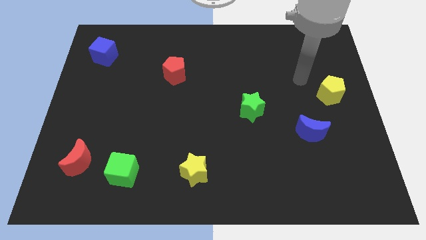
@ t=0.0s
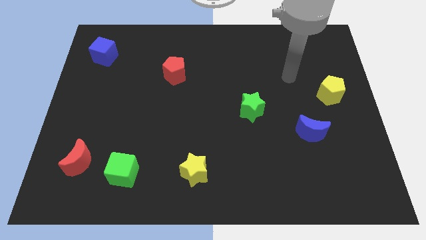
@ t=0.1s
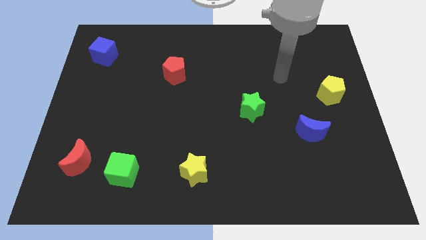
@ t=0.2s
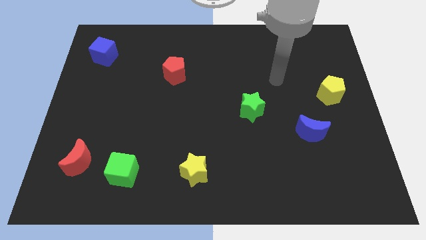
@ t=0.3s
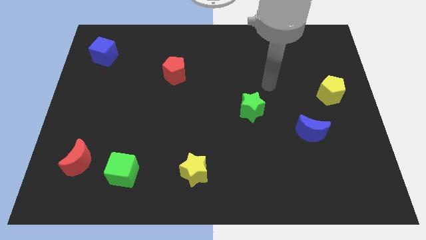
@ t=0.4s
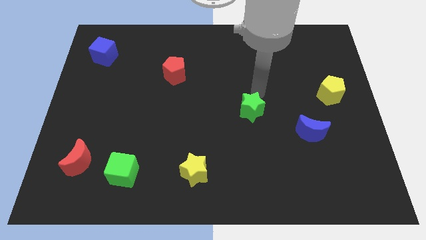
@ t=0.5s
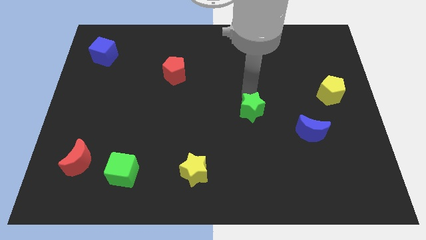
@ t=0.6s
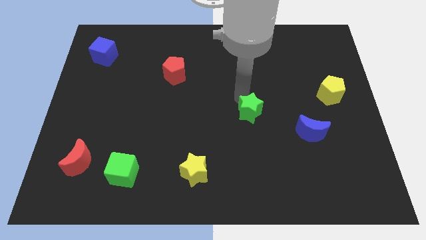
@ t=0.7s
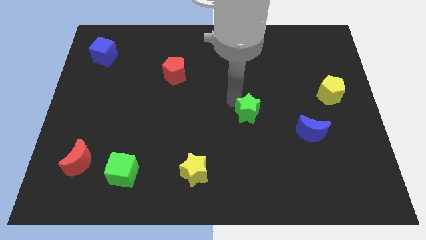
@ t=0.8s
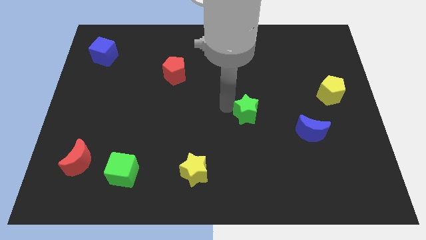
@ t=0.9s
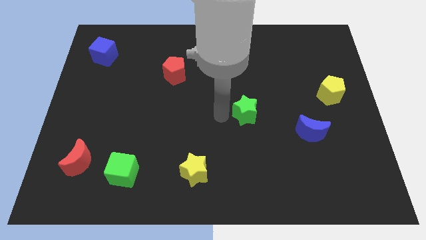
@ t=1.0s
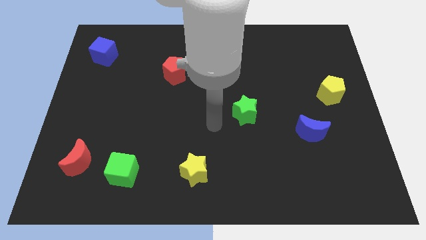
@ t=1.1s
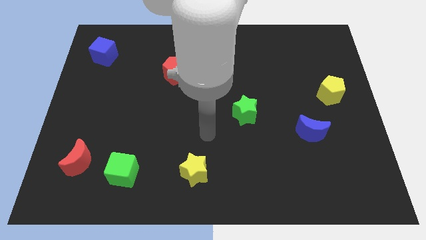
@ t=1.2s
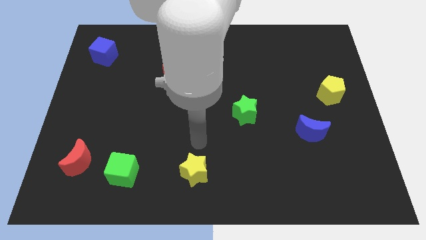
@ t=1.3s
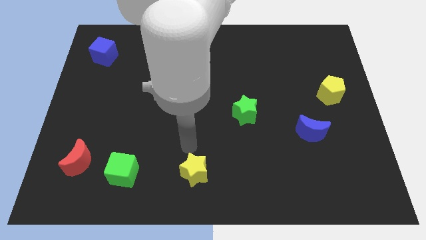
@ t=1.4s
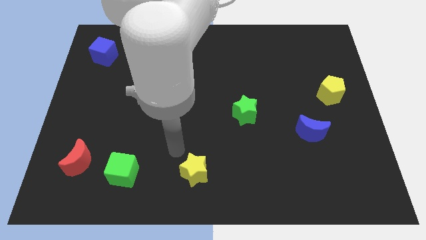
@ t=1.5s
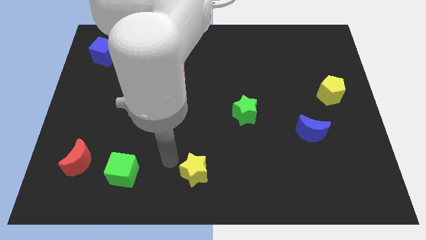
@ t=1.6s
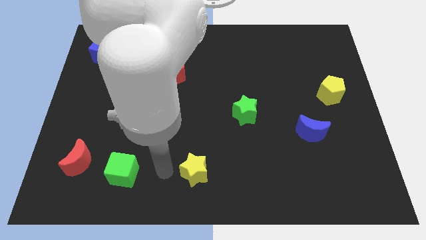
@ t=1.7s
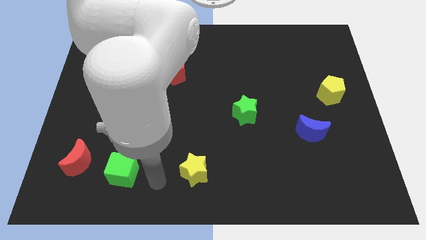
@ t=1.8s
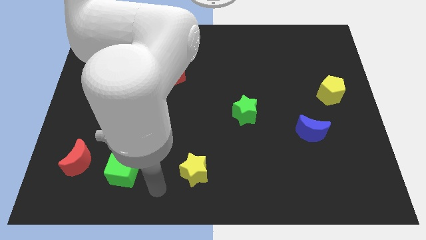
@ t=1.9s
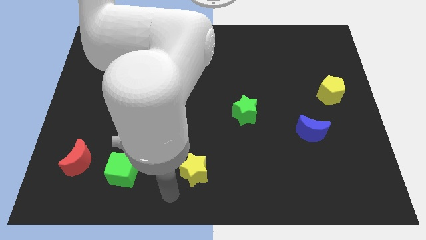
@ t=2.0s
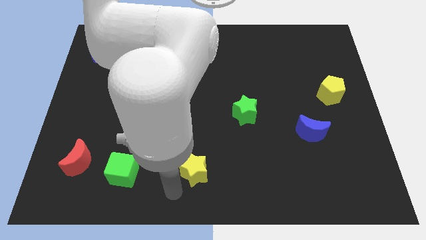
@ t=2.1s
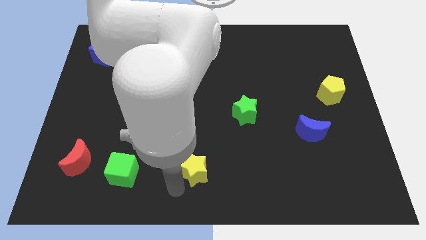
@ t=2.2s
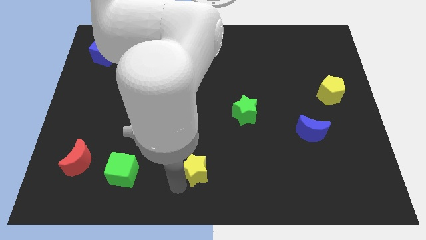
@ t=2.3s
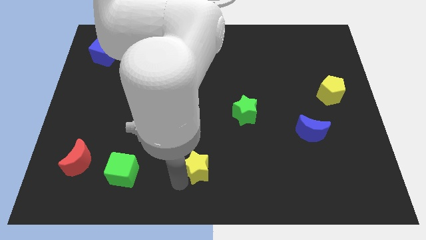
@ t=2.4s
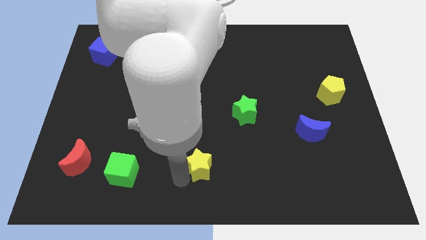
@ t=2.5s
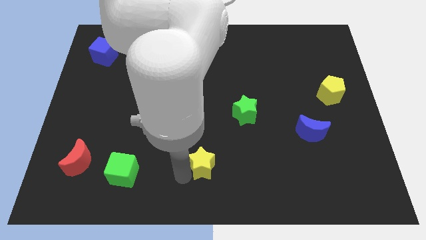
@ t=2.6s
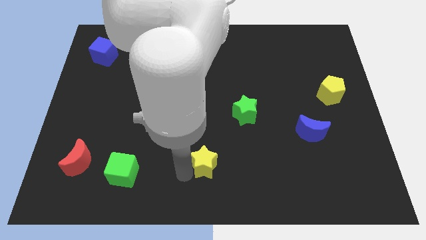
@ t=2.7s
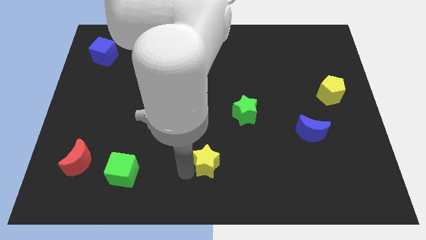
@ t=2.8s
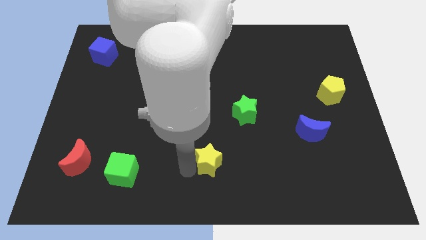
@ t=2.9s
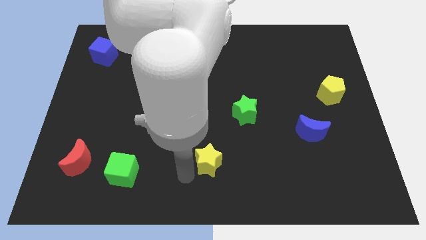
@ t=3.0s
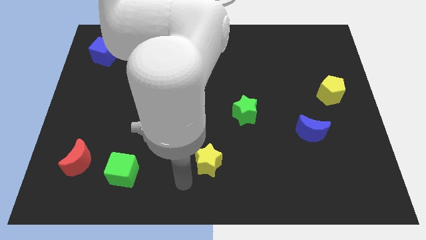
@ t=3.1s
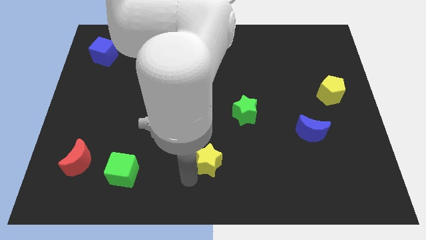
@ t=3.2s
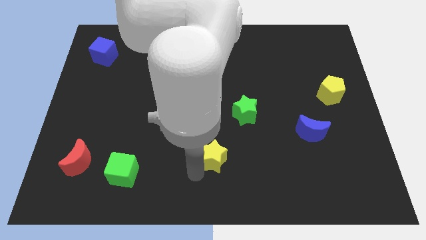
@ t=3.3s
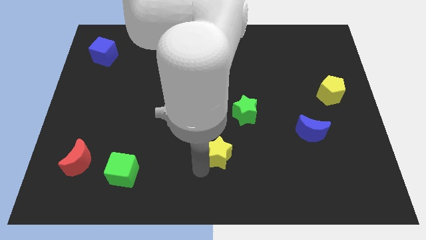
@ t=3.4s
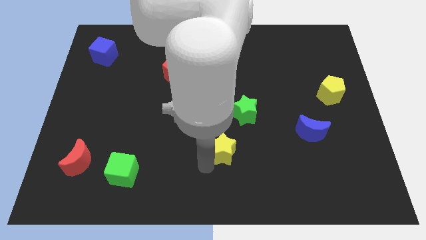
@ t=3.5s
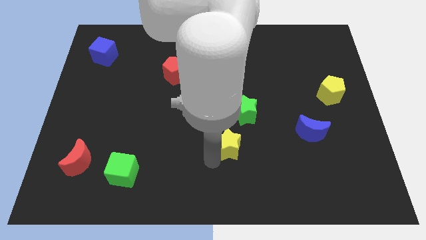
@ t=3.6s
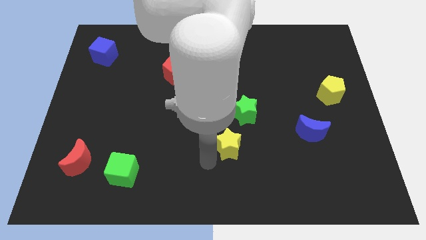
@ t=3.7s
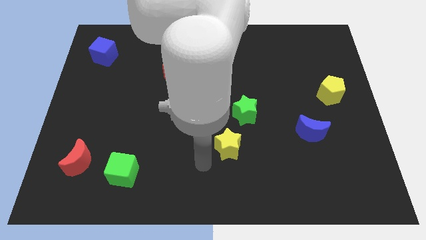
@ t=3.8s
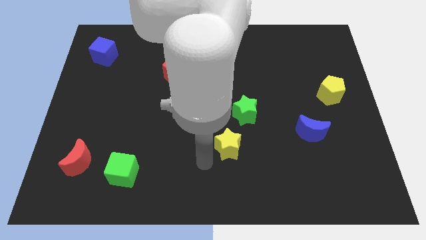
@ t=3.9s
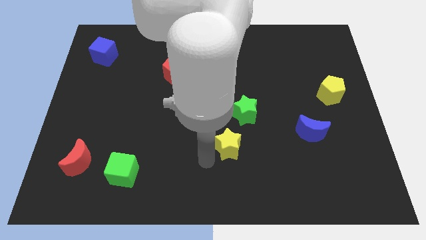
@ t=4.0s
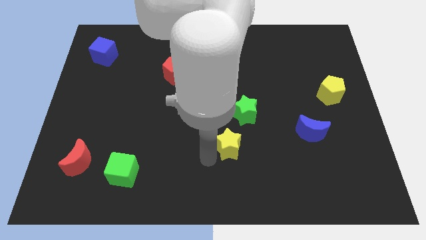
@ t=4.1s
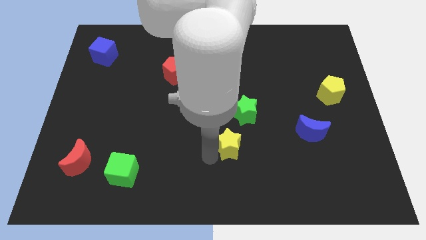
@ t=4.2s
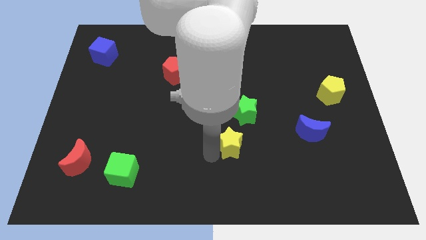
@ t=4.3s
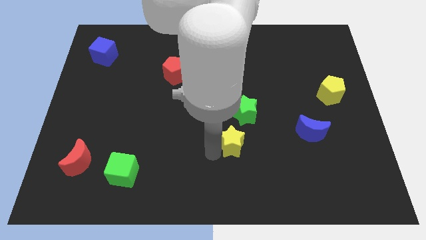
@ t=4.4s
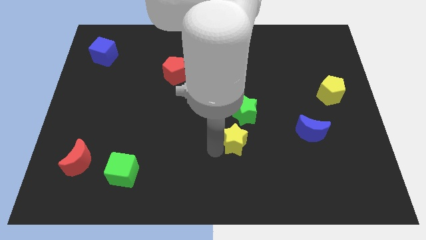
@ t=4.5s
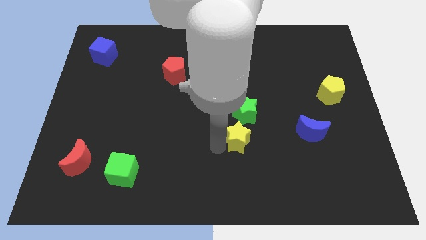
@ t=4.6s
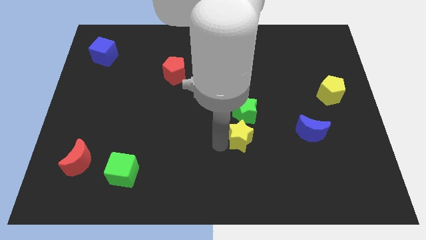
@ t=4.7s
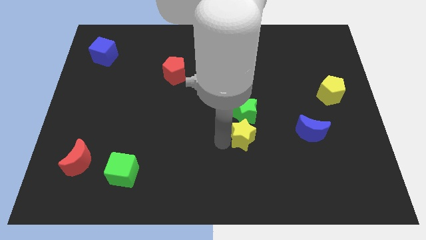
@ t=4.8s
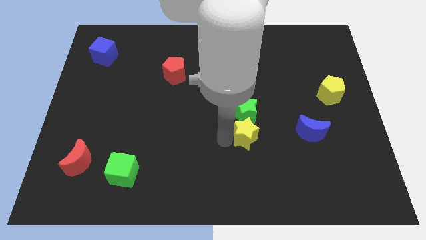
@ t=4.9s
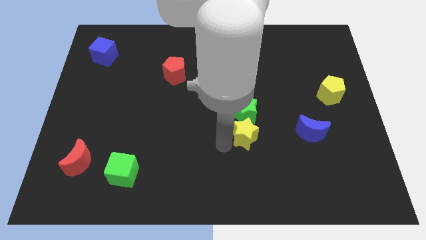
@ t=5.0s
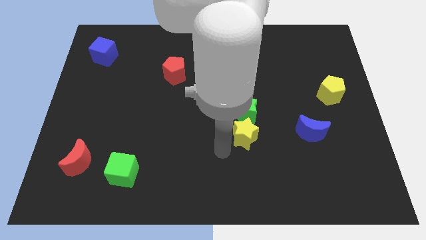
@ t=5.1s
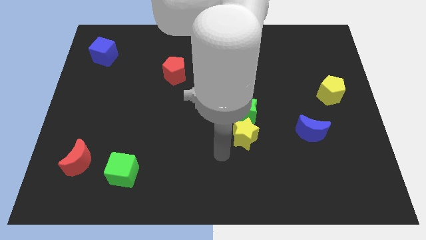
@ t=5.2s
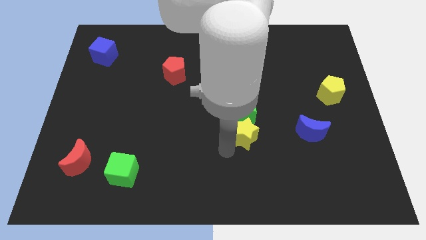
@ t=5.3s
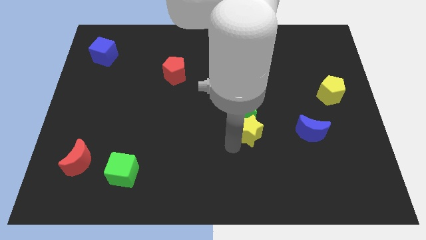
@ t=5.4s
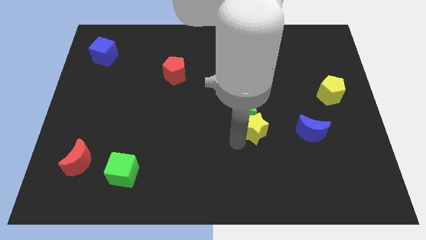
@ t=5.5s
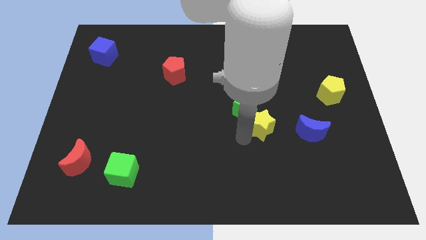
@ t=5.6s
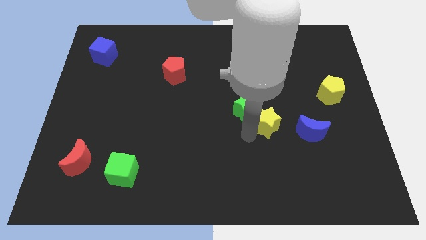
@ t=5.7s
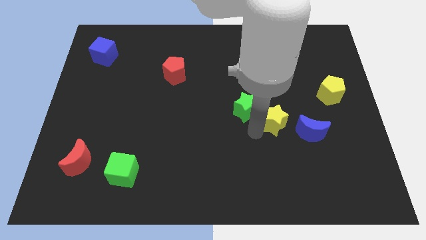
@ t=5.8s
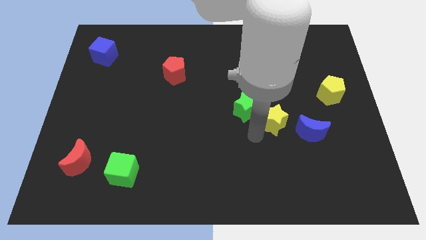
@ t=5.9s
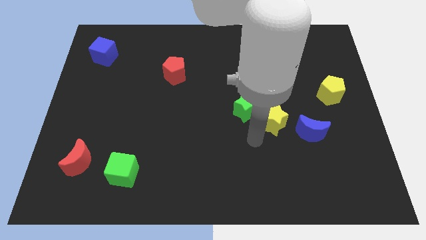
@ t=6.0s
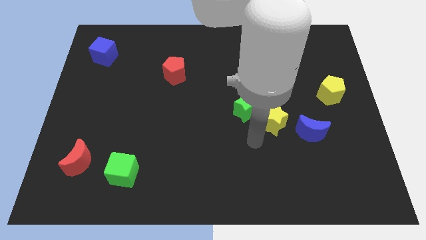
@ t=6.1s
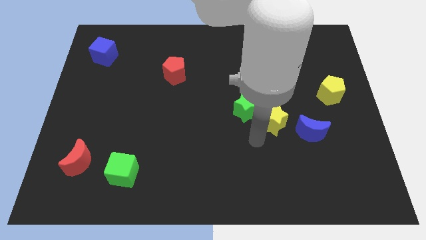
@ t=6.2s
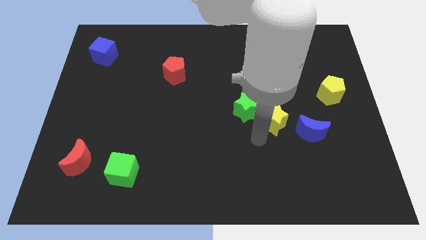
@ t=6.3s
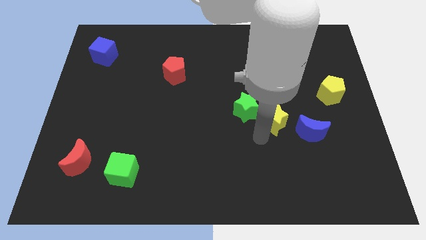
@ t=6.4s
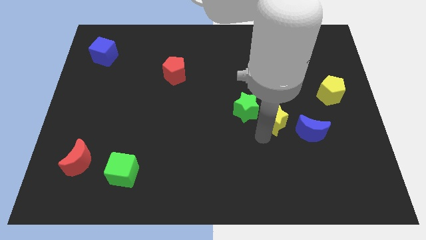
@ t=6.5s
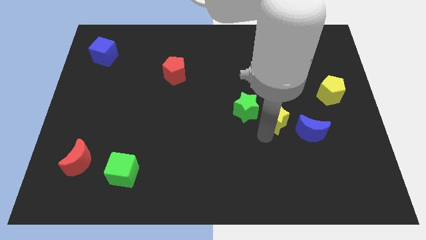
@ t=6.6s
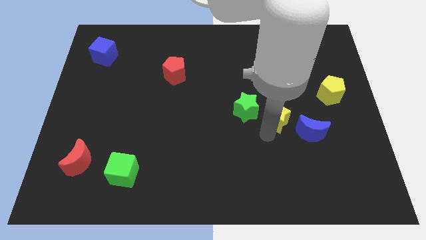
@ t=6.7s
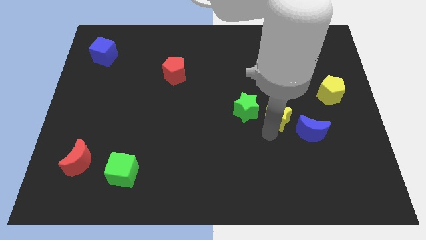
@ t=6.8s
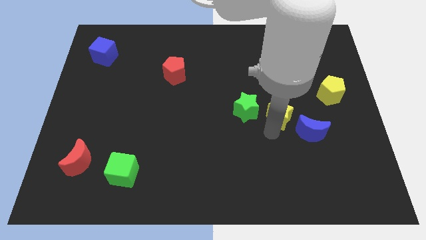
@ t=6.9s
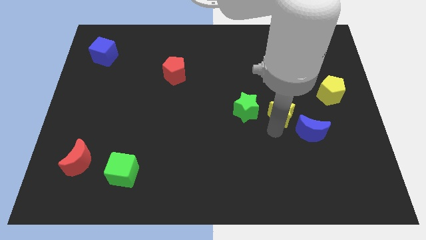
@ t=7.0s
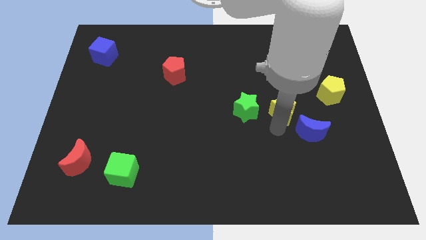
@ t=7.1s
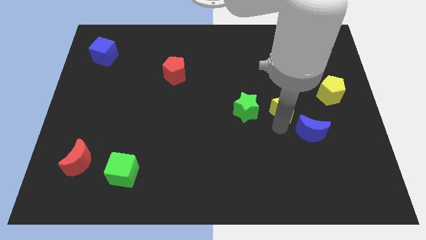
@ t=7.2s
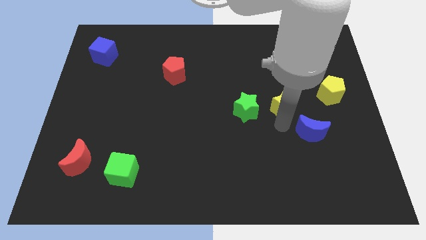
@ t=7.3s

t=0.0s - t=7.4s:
move the yellow star to the left of the yellow pentagon
